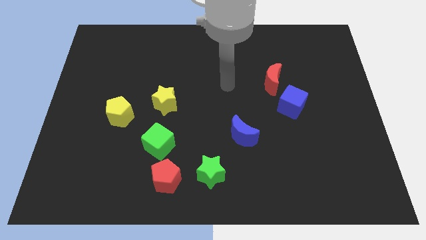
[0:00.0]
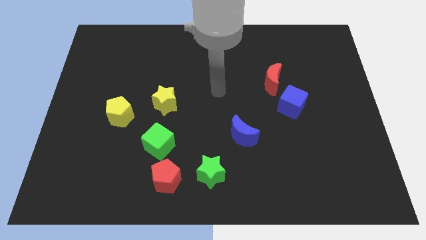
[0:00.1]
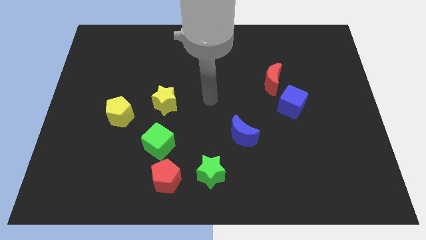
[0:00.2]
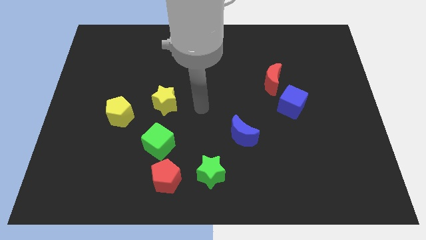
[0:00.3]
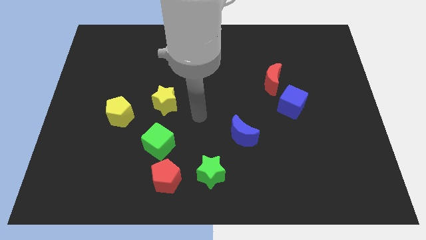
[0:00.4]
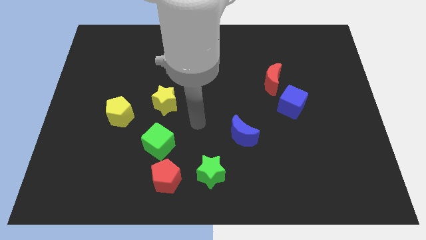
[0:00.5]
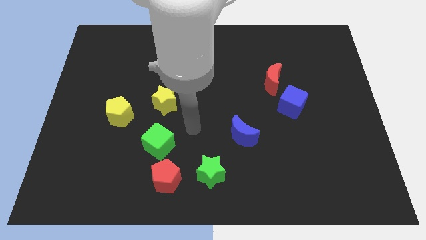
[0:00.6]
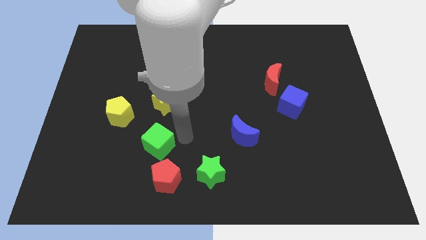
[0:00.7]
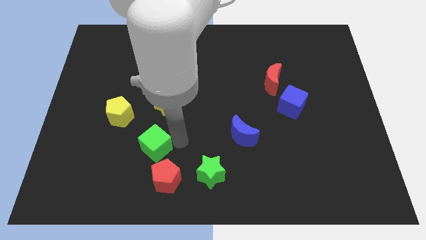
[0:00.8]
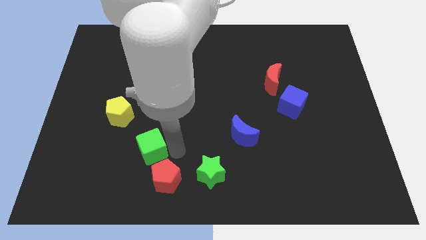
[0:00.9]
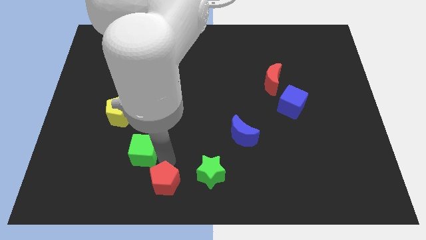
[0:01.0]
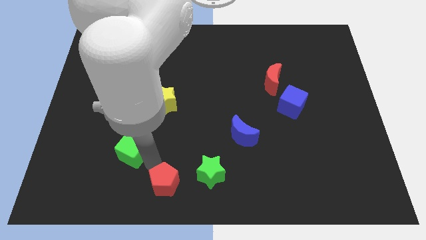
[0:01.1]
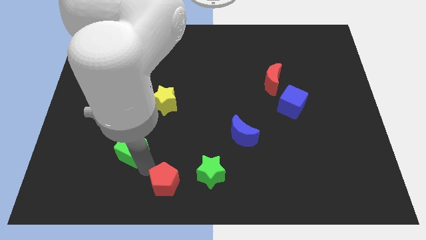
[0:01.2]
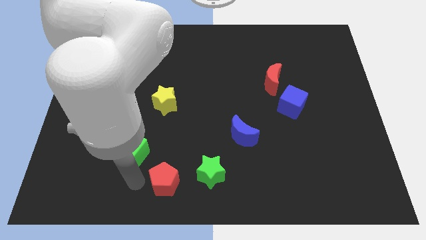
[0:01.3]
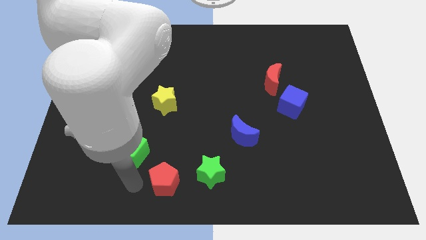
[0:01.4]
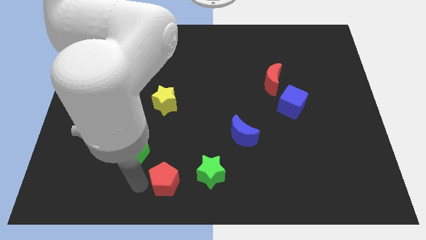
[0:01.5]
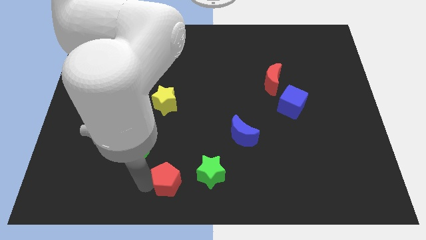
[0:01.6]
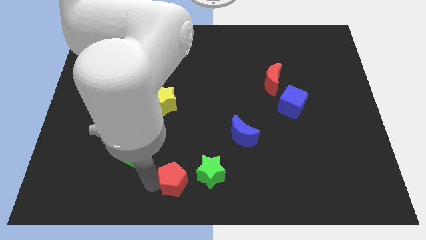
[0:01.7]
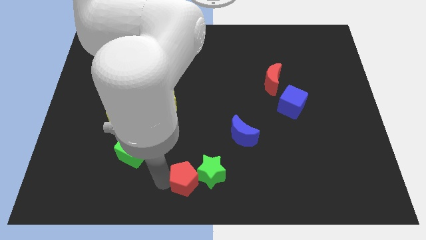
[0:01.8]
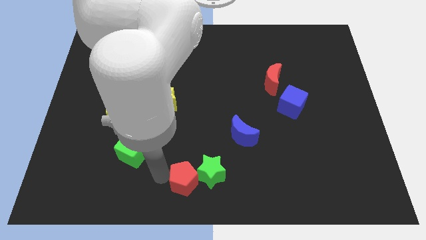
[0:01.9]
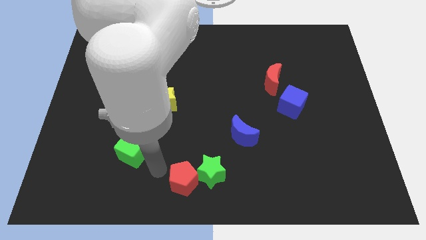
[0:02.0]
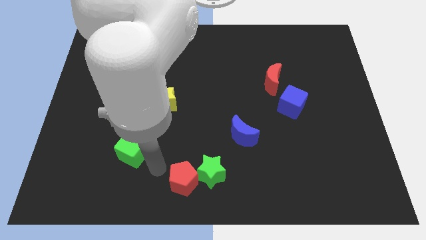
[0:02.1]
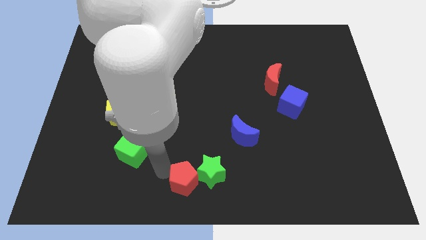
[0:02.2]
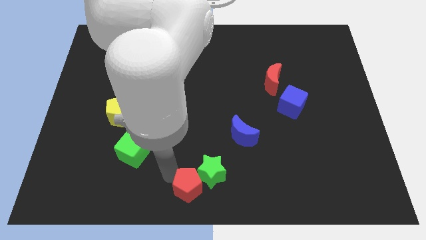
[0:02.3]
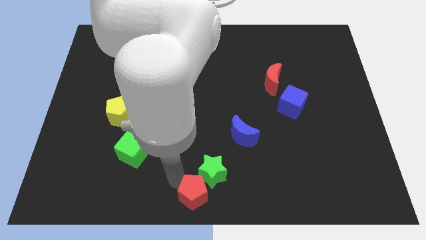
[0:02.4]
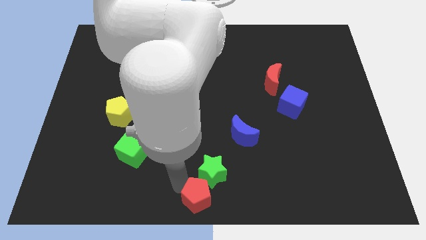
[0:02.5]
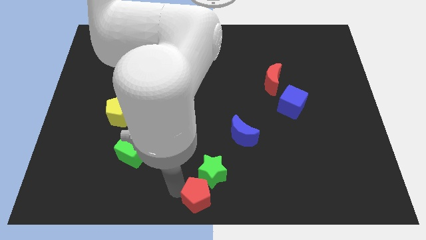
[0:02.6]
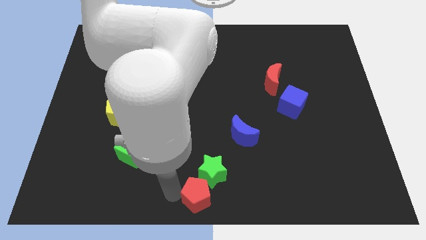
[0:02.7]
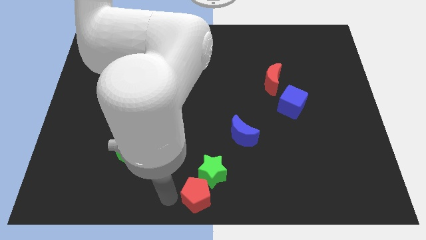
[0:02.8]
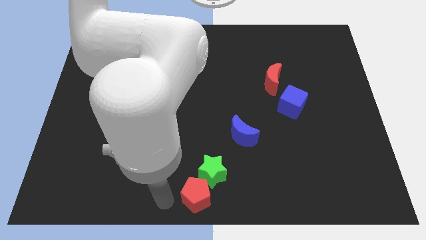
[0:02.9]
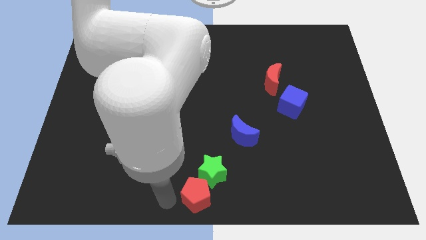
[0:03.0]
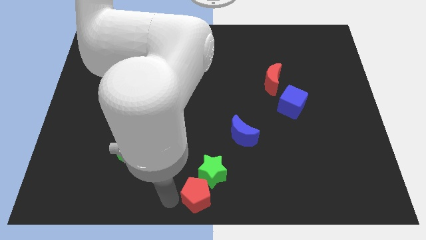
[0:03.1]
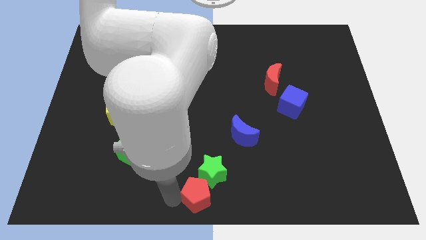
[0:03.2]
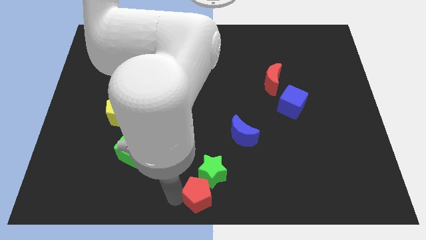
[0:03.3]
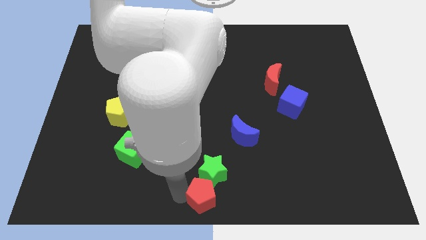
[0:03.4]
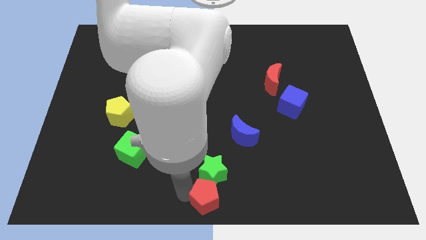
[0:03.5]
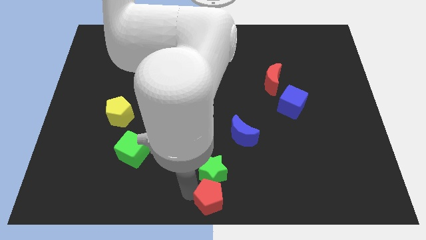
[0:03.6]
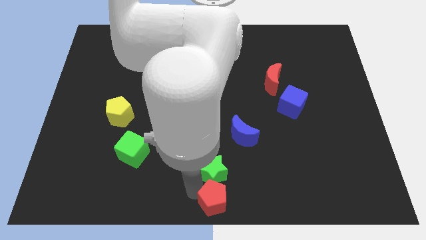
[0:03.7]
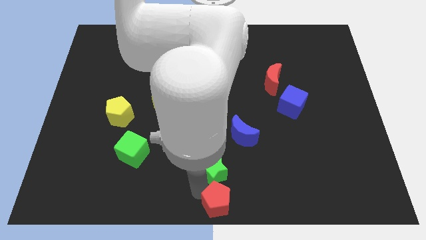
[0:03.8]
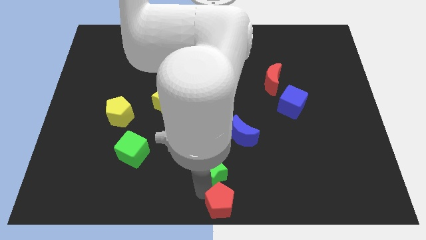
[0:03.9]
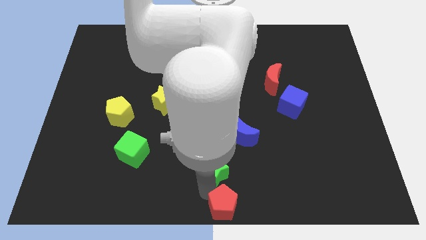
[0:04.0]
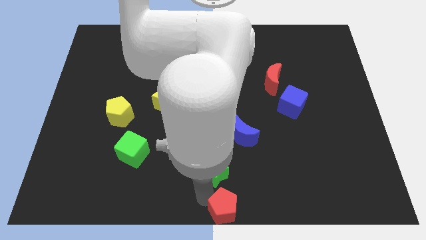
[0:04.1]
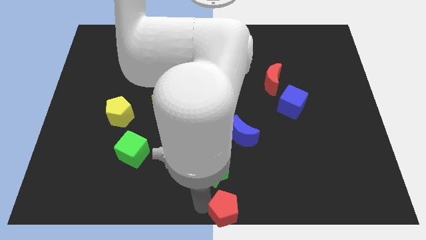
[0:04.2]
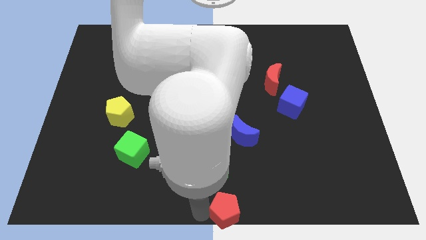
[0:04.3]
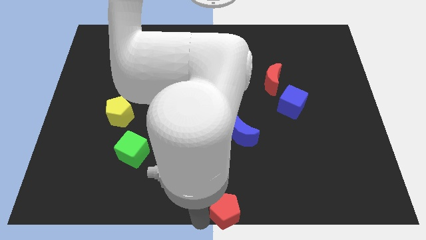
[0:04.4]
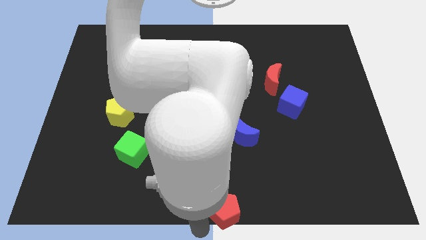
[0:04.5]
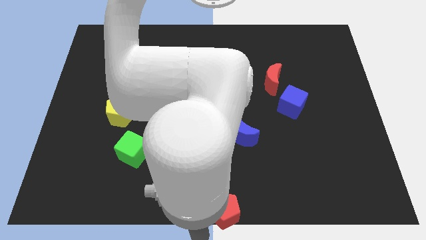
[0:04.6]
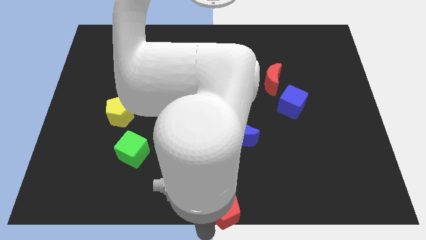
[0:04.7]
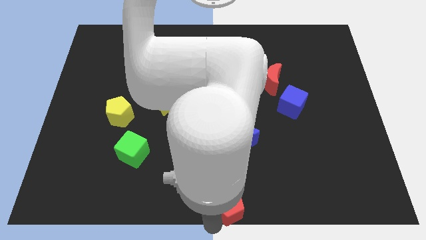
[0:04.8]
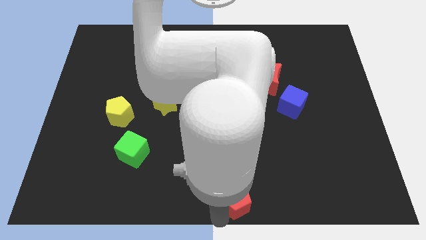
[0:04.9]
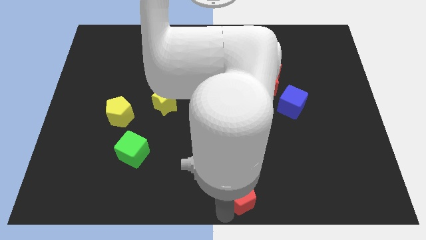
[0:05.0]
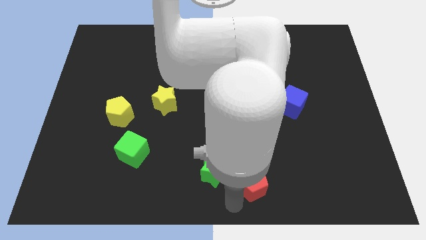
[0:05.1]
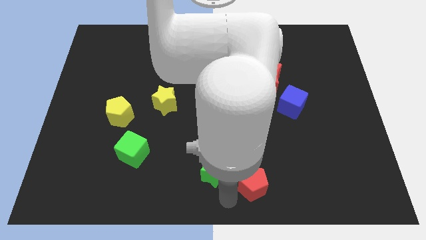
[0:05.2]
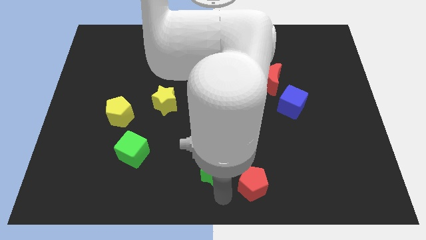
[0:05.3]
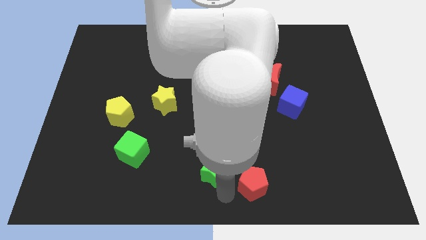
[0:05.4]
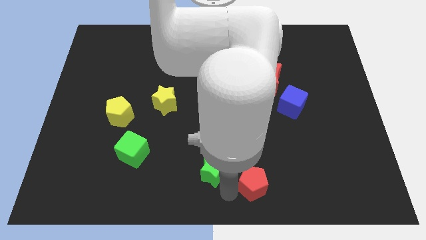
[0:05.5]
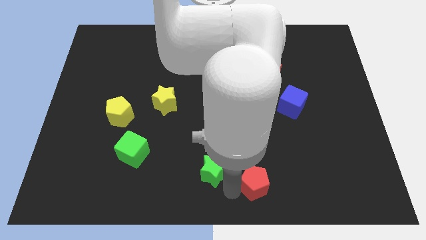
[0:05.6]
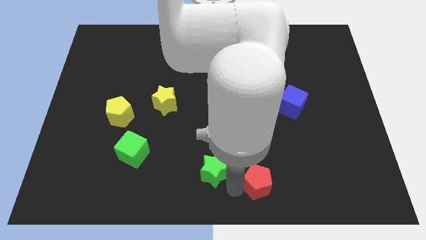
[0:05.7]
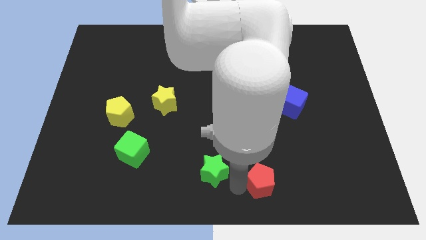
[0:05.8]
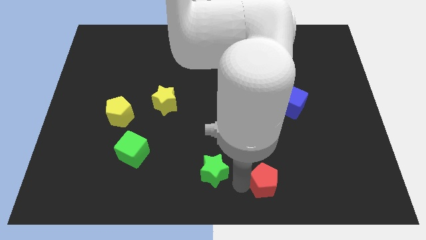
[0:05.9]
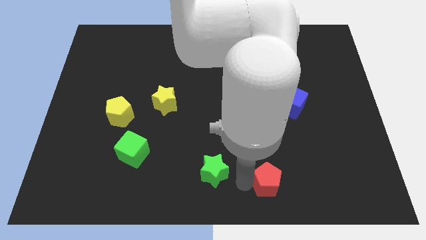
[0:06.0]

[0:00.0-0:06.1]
push the red pentagon right

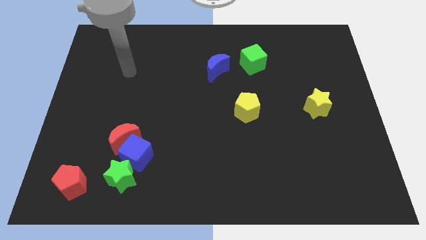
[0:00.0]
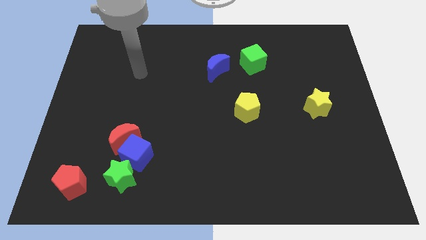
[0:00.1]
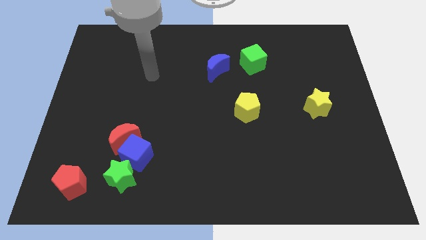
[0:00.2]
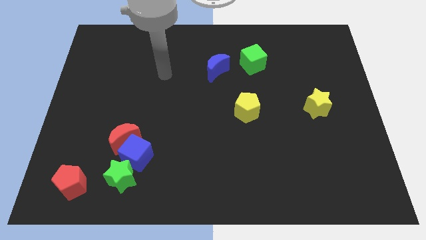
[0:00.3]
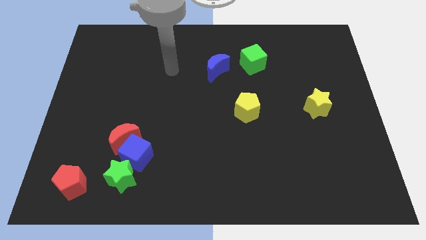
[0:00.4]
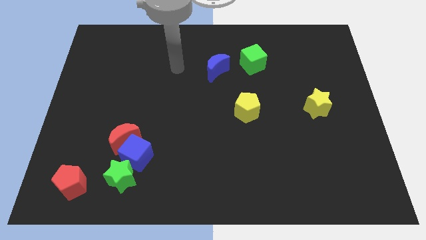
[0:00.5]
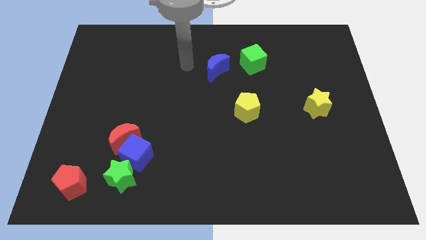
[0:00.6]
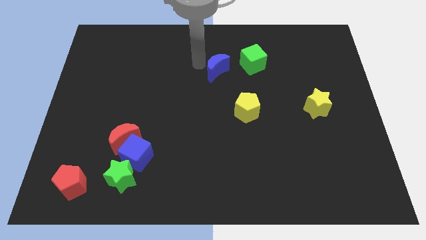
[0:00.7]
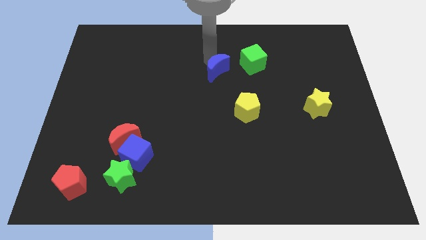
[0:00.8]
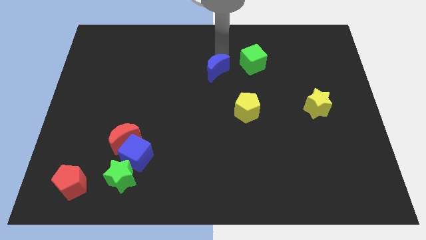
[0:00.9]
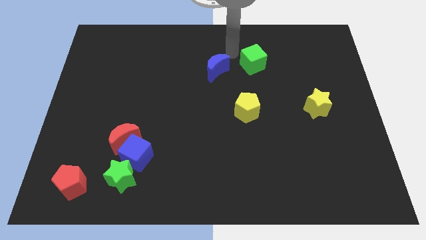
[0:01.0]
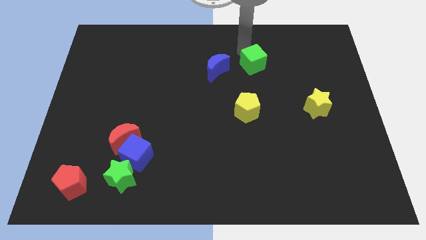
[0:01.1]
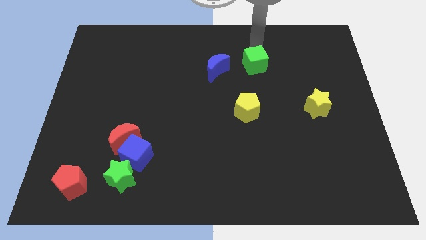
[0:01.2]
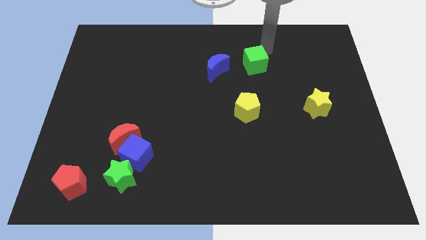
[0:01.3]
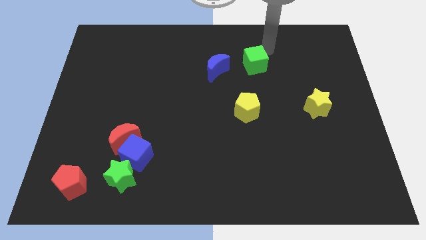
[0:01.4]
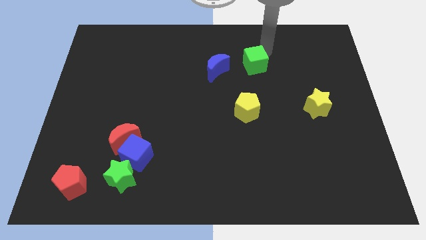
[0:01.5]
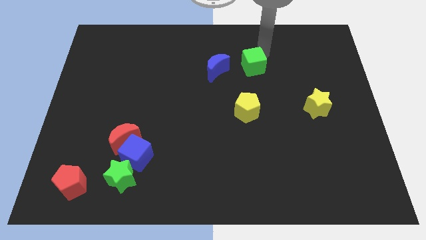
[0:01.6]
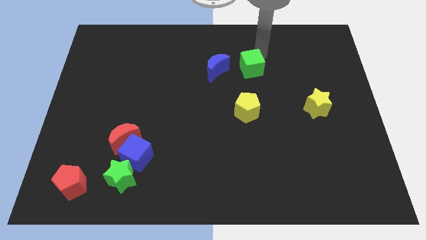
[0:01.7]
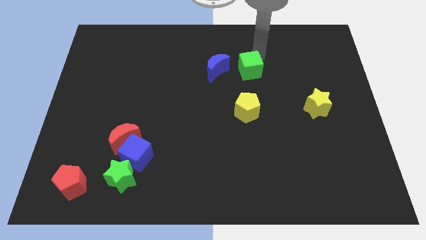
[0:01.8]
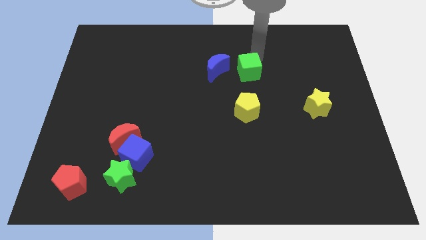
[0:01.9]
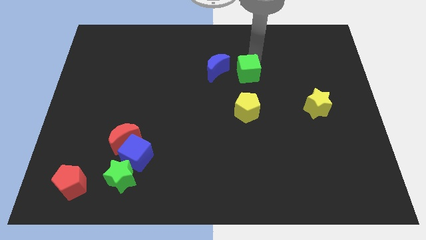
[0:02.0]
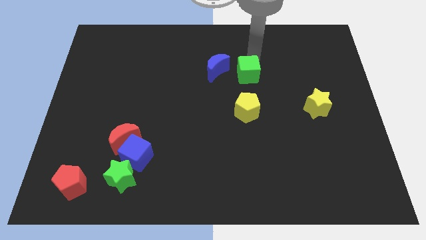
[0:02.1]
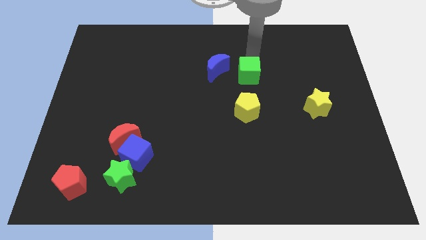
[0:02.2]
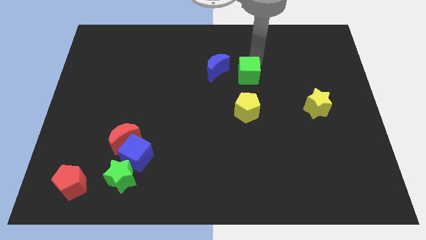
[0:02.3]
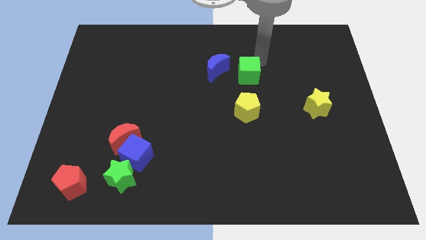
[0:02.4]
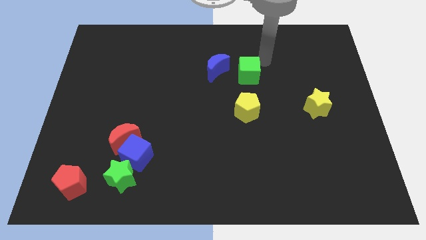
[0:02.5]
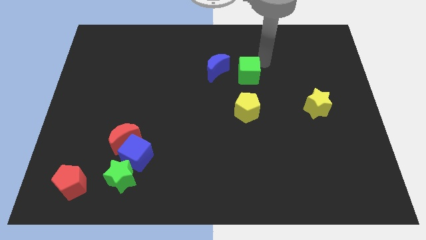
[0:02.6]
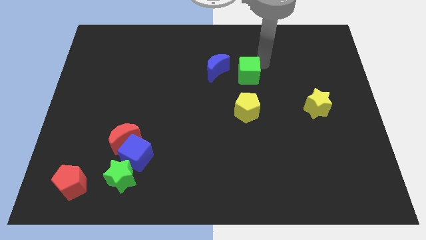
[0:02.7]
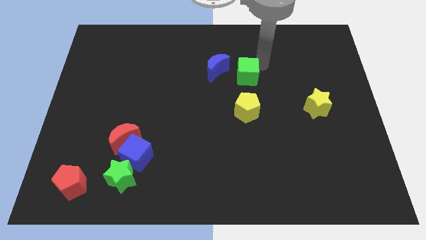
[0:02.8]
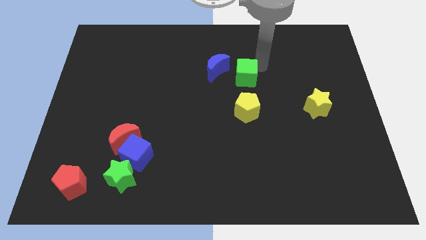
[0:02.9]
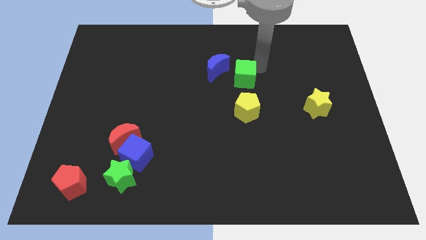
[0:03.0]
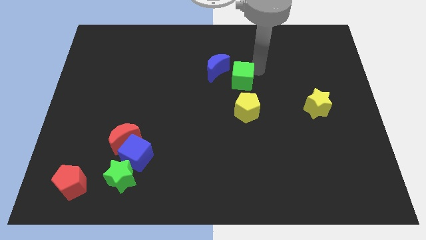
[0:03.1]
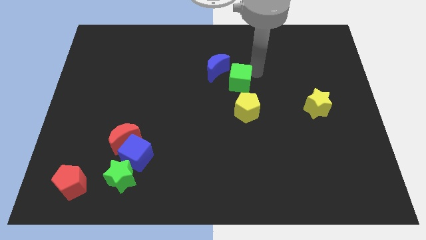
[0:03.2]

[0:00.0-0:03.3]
slightly push the green cube diagonally down and left
